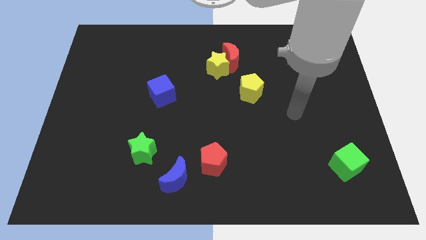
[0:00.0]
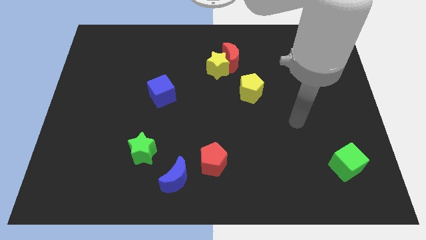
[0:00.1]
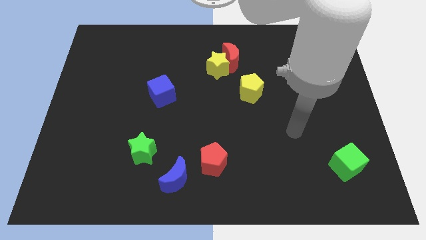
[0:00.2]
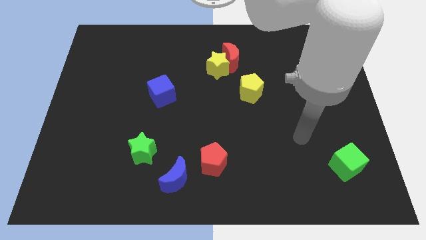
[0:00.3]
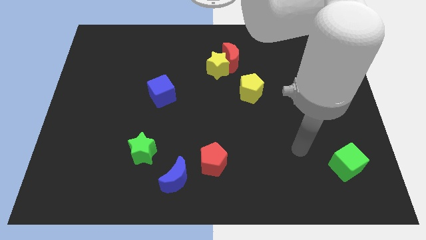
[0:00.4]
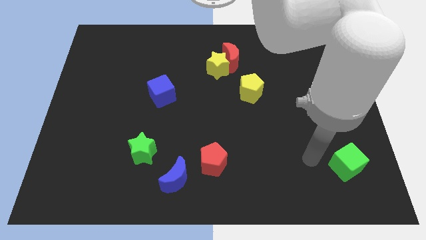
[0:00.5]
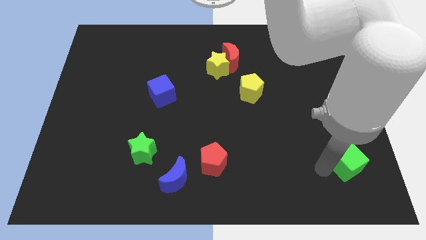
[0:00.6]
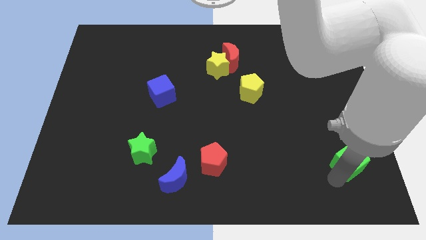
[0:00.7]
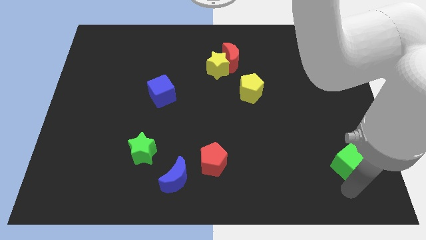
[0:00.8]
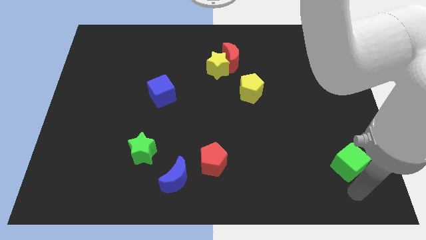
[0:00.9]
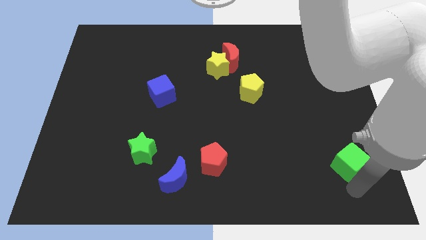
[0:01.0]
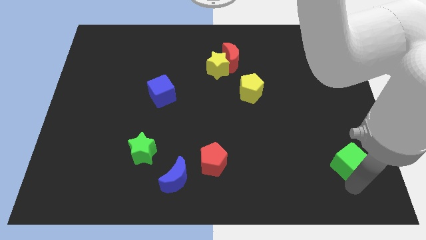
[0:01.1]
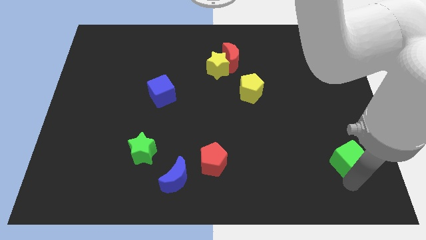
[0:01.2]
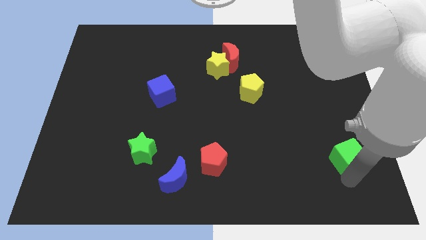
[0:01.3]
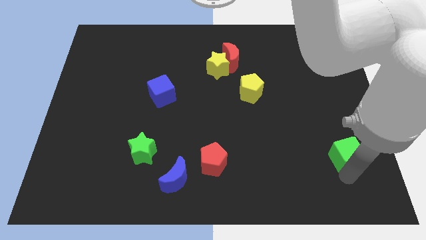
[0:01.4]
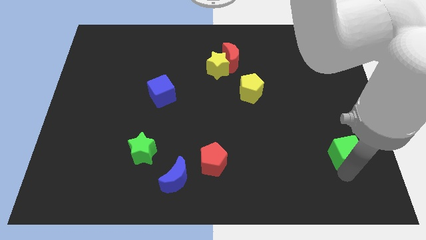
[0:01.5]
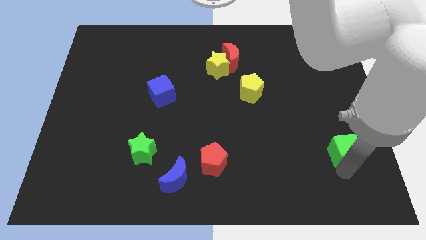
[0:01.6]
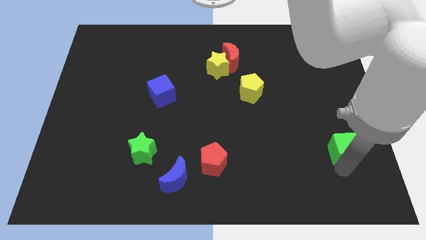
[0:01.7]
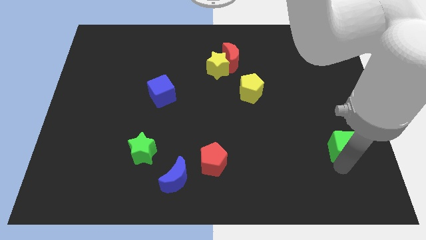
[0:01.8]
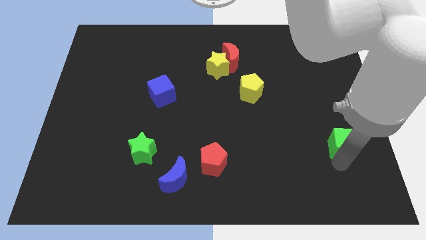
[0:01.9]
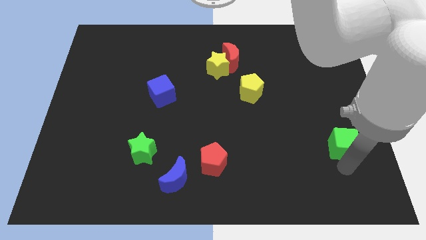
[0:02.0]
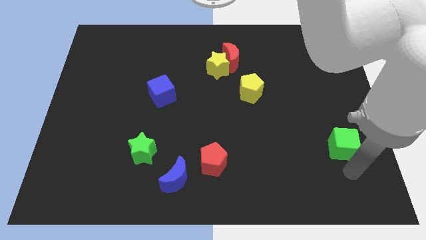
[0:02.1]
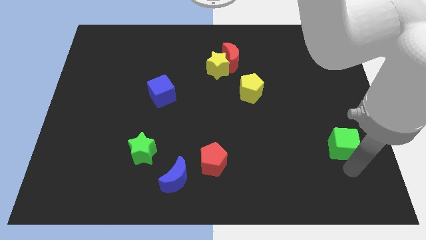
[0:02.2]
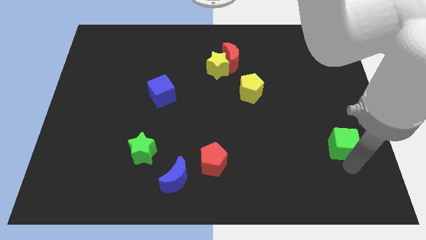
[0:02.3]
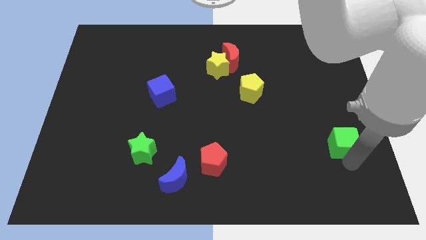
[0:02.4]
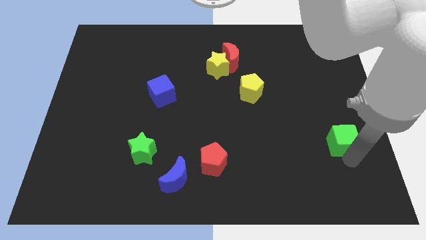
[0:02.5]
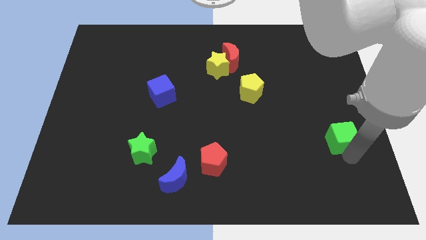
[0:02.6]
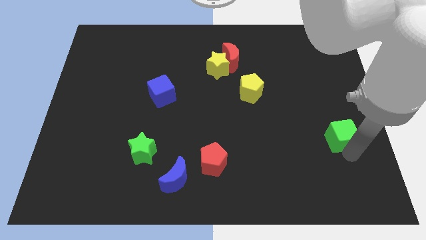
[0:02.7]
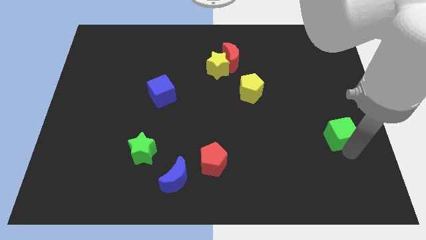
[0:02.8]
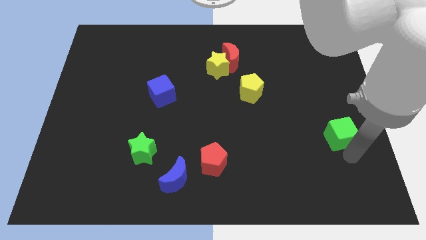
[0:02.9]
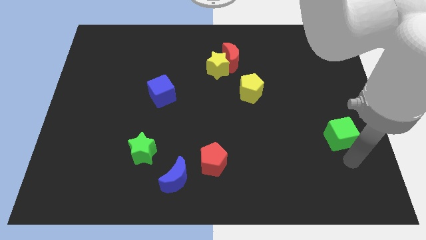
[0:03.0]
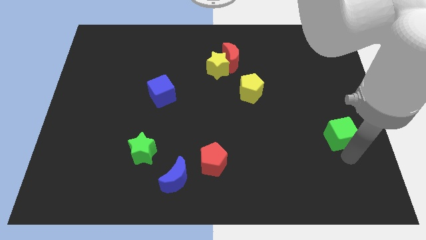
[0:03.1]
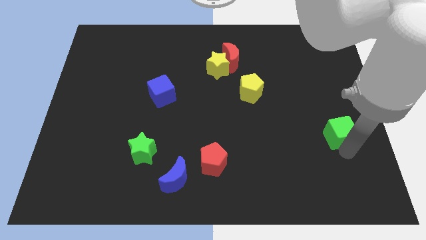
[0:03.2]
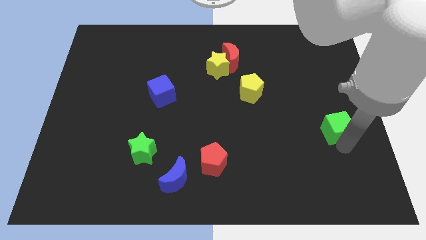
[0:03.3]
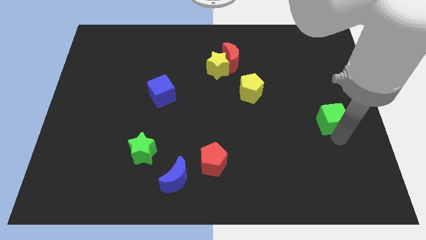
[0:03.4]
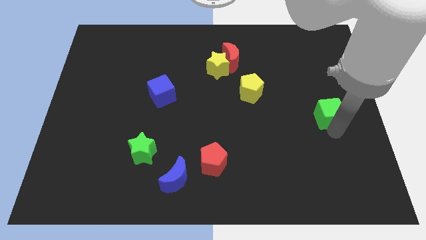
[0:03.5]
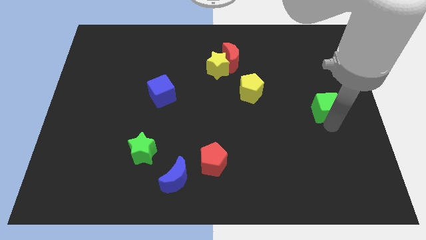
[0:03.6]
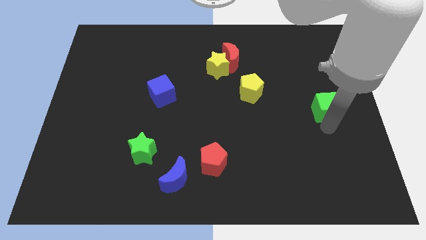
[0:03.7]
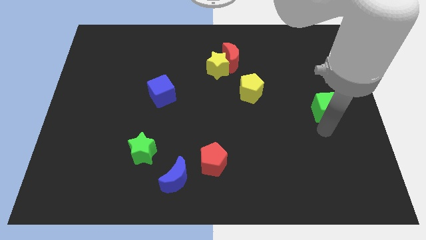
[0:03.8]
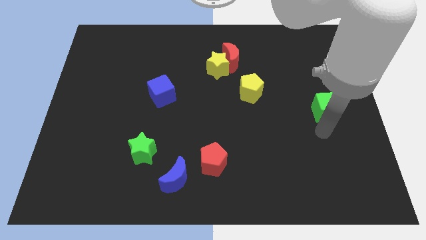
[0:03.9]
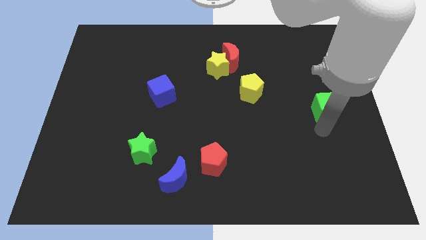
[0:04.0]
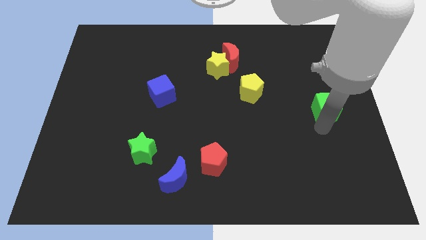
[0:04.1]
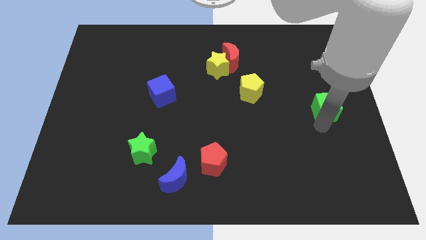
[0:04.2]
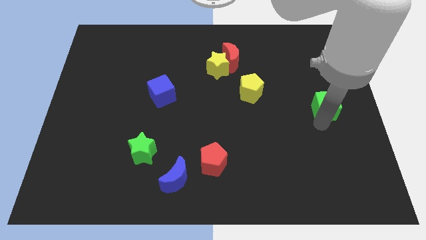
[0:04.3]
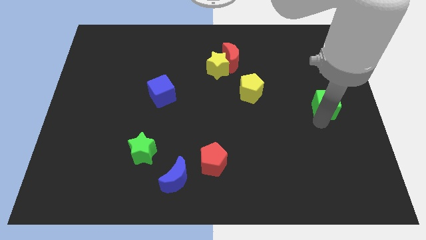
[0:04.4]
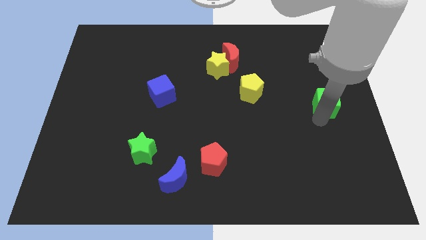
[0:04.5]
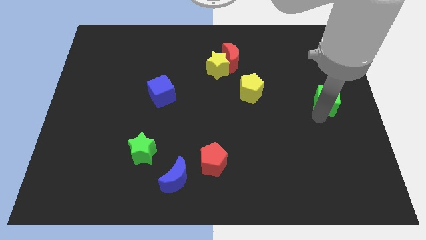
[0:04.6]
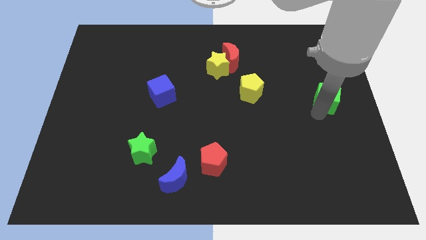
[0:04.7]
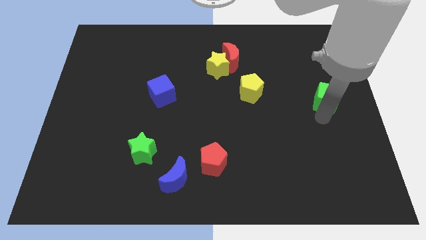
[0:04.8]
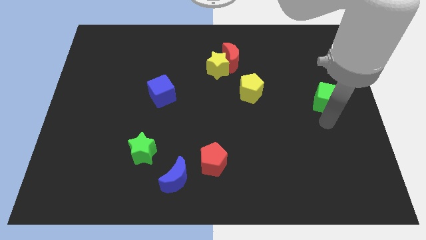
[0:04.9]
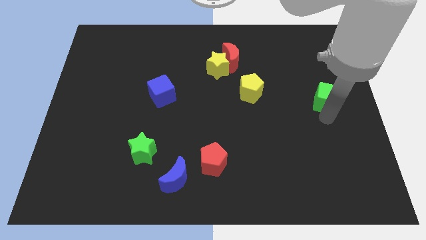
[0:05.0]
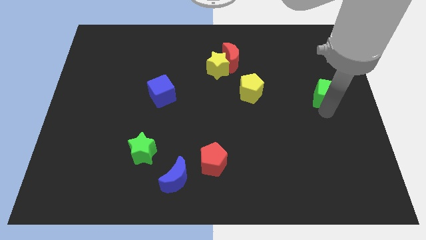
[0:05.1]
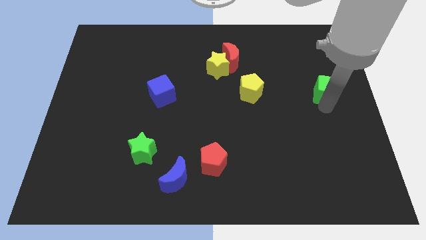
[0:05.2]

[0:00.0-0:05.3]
push the green cube upwards

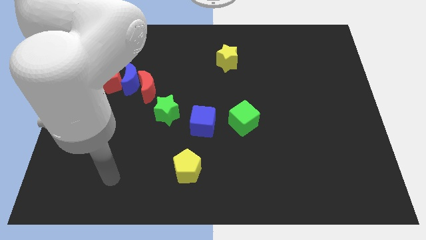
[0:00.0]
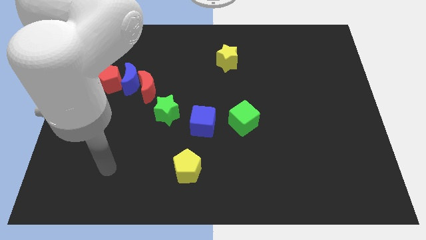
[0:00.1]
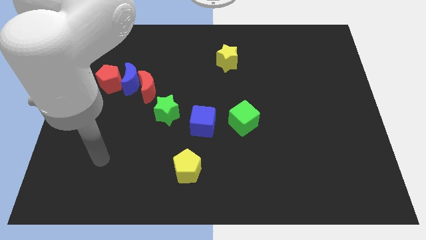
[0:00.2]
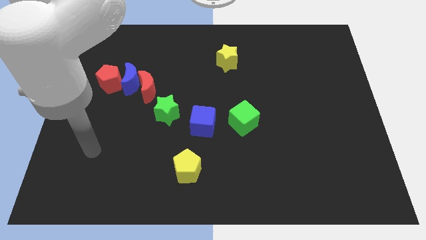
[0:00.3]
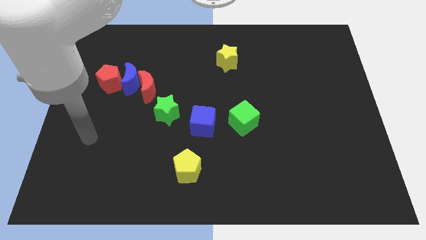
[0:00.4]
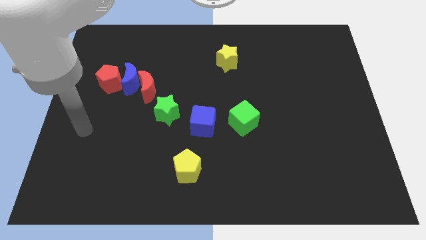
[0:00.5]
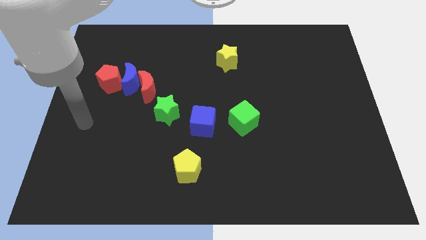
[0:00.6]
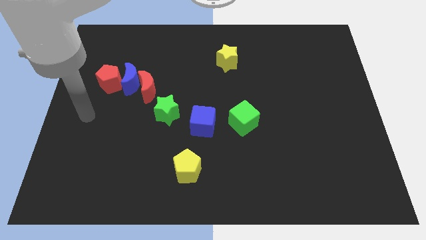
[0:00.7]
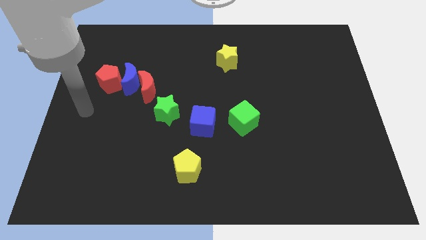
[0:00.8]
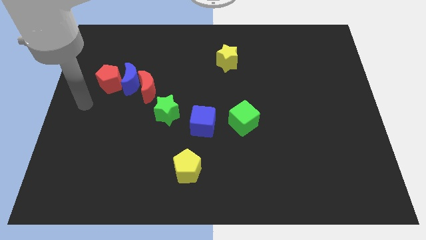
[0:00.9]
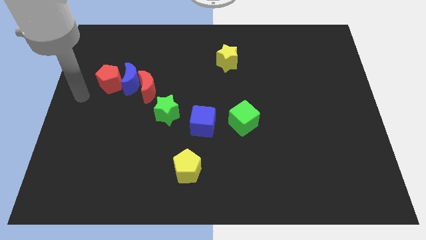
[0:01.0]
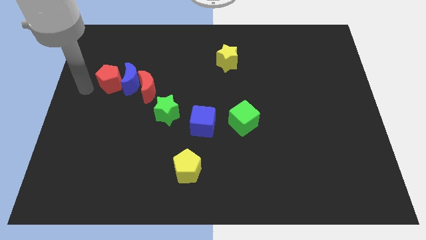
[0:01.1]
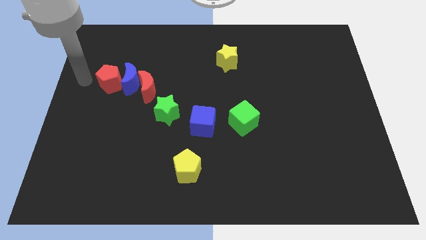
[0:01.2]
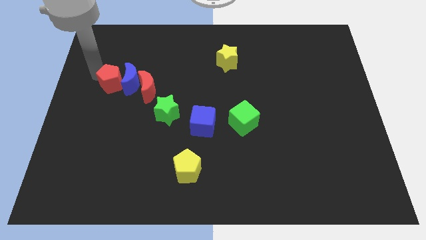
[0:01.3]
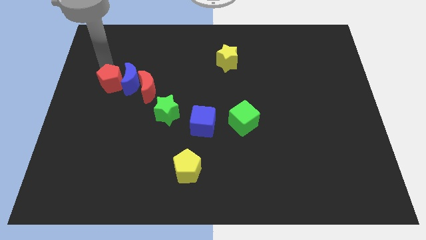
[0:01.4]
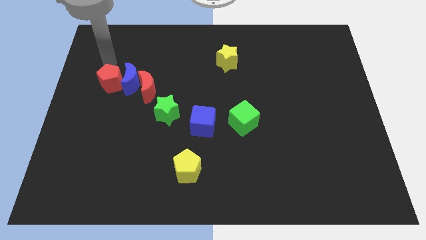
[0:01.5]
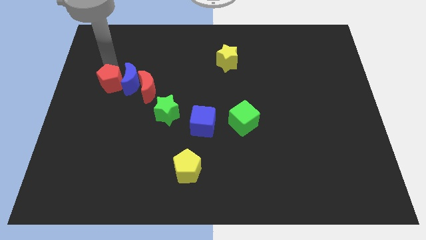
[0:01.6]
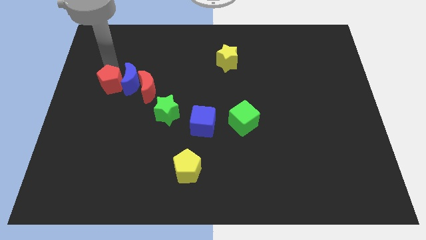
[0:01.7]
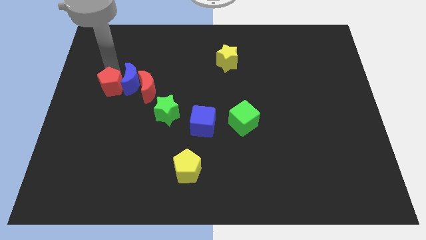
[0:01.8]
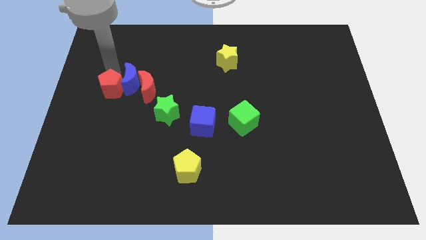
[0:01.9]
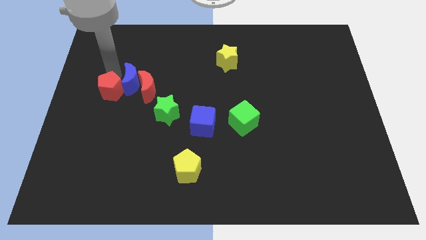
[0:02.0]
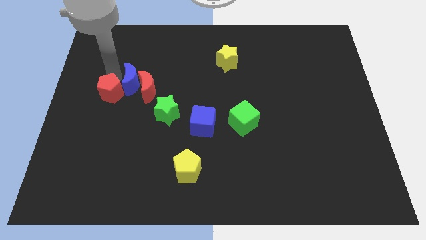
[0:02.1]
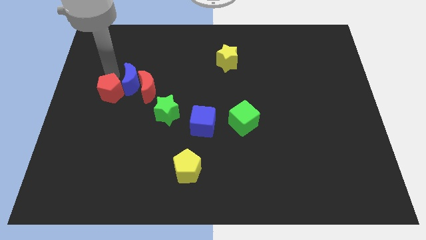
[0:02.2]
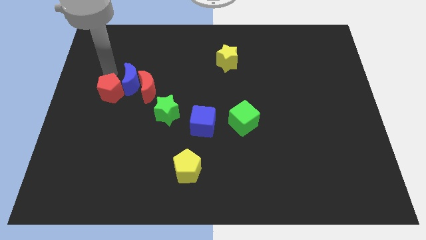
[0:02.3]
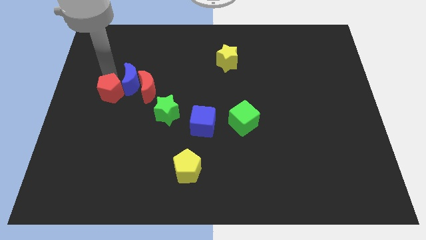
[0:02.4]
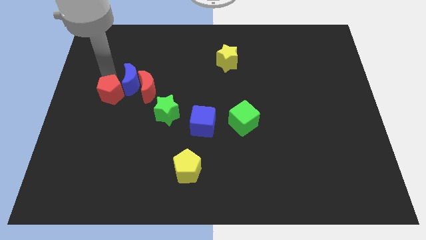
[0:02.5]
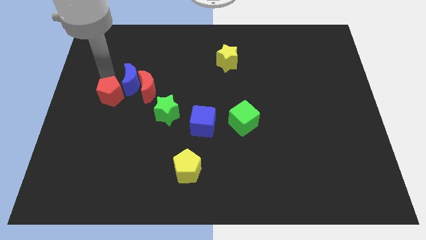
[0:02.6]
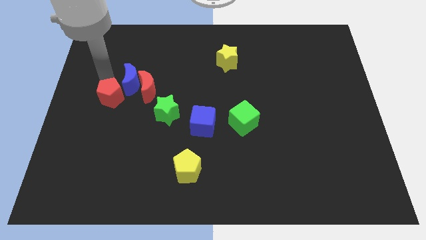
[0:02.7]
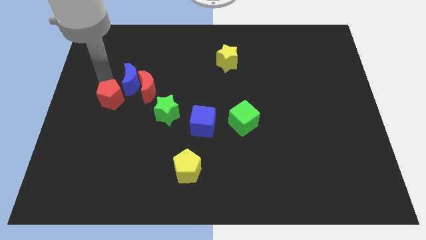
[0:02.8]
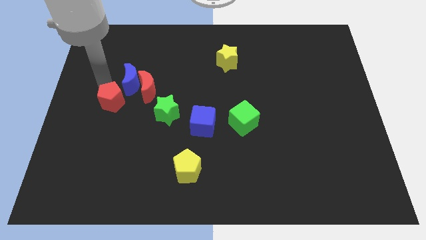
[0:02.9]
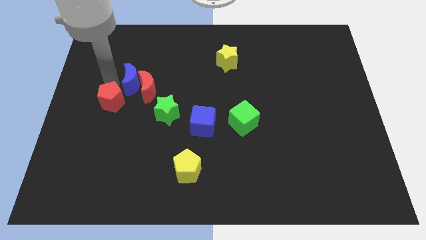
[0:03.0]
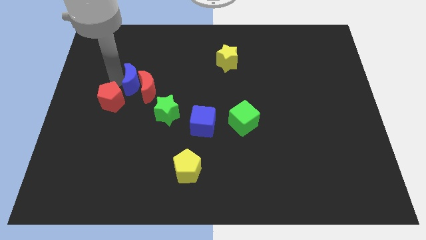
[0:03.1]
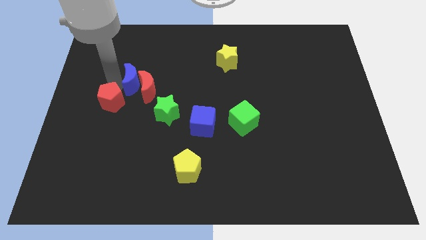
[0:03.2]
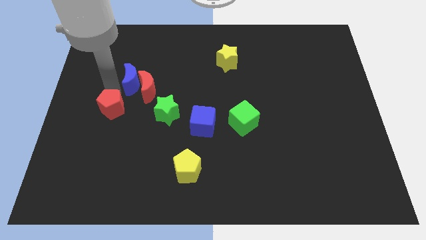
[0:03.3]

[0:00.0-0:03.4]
push the red pentagon downwards a little

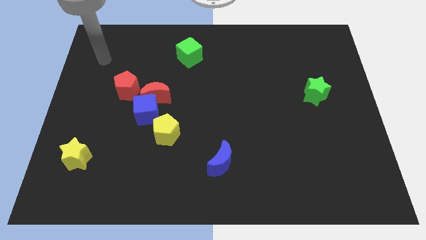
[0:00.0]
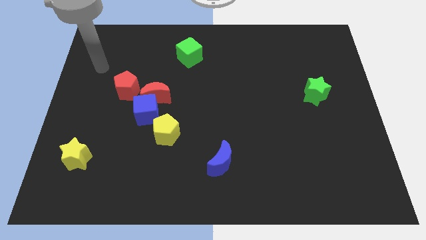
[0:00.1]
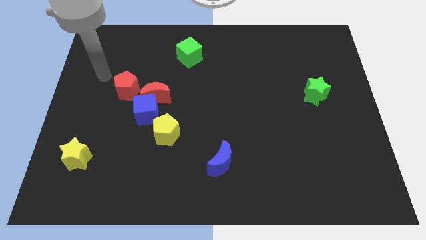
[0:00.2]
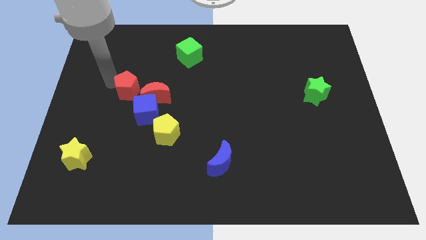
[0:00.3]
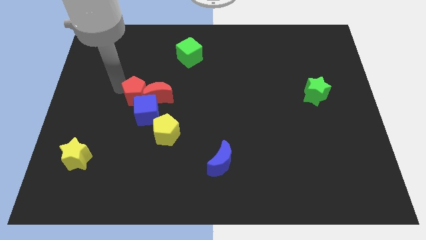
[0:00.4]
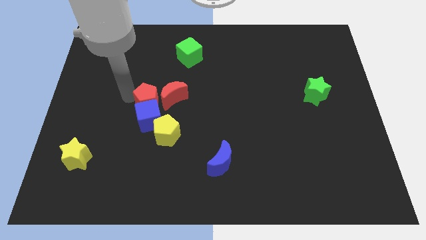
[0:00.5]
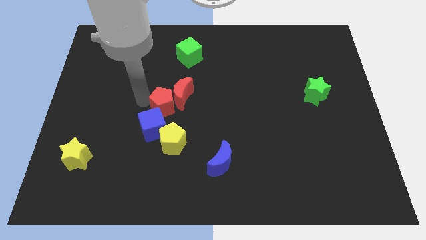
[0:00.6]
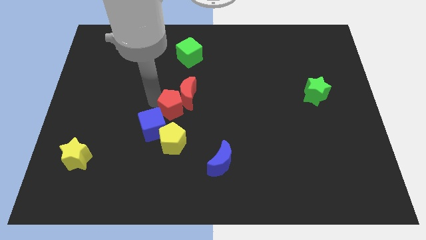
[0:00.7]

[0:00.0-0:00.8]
push the red moon to the right somewhat
